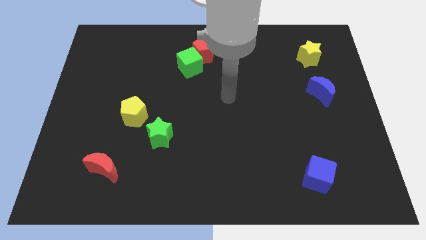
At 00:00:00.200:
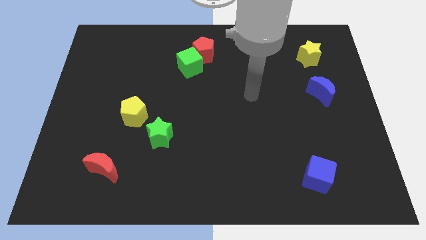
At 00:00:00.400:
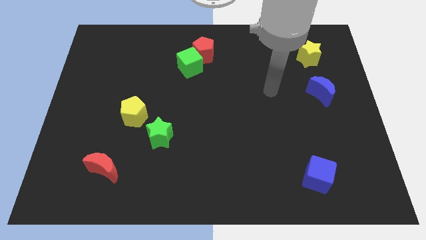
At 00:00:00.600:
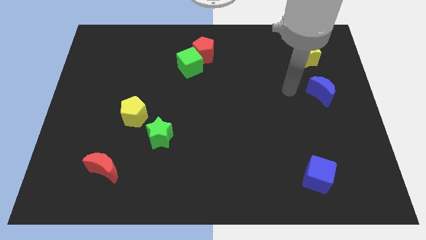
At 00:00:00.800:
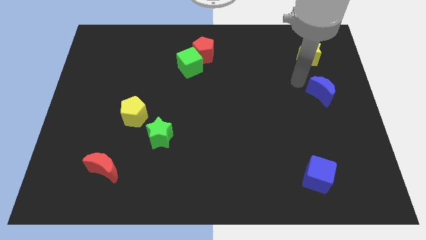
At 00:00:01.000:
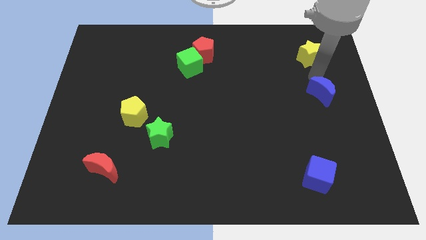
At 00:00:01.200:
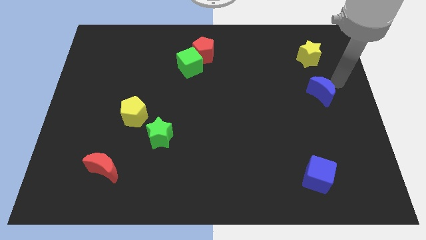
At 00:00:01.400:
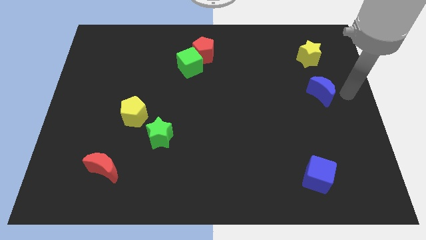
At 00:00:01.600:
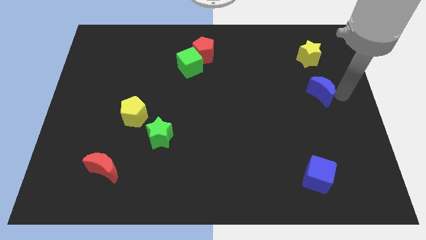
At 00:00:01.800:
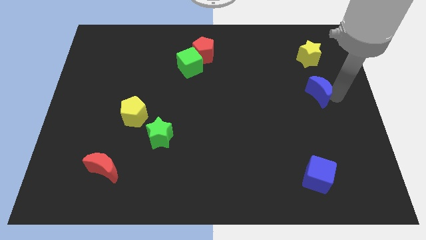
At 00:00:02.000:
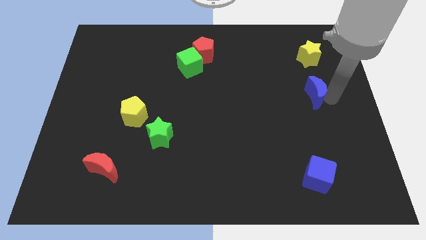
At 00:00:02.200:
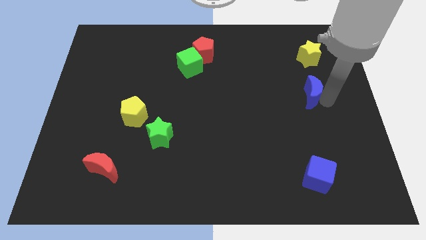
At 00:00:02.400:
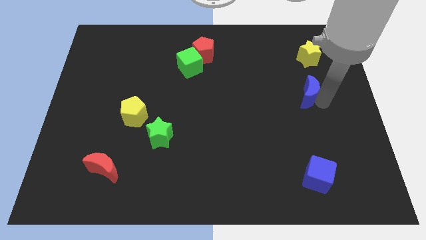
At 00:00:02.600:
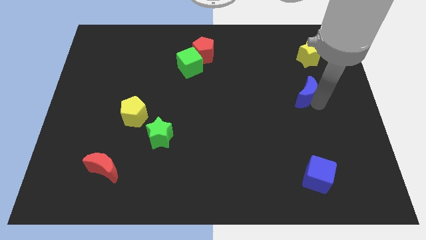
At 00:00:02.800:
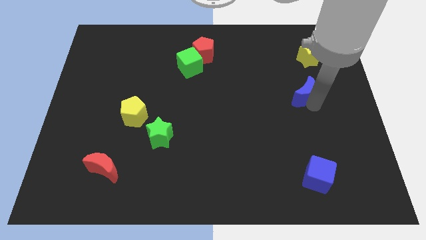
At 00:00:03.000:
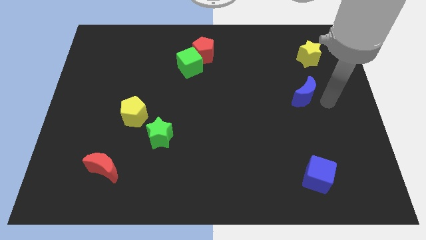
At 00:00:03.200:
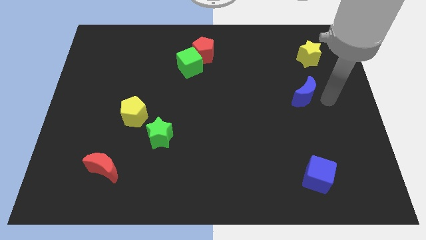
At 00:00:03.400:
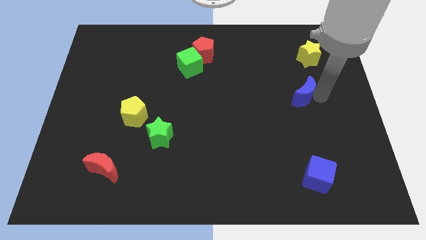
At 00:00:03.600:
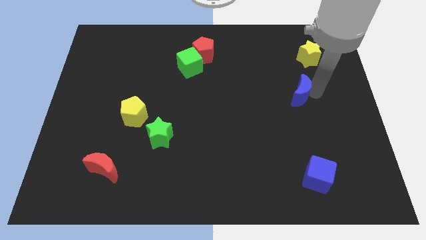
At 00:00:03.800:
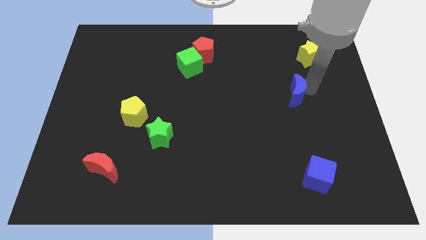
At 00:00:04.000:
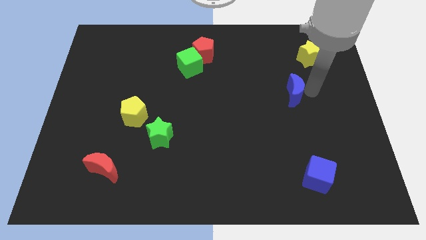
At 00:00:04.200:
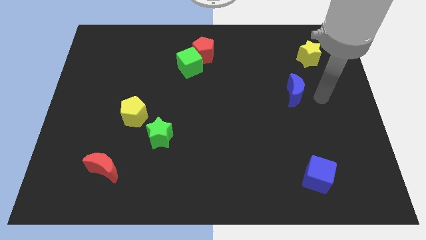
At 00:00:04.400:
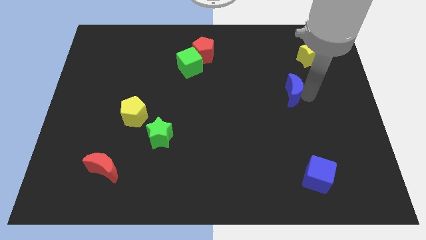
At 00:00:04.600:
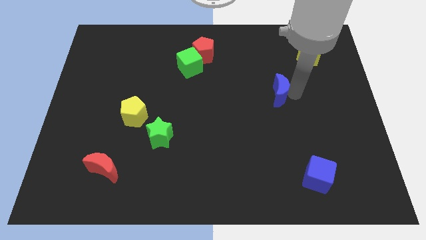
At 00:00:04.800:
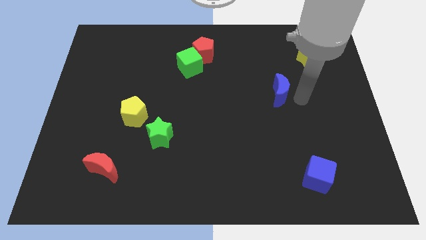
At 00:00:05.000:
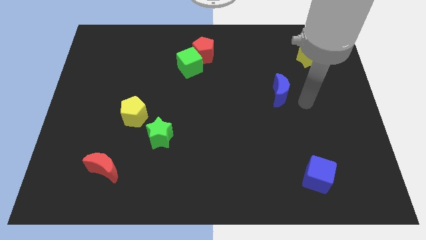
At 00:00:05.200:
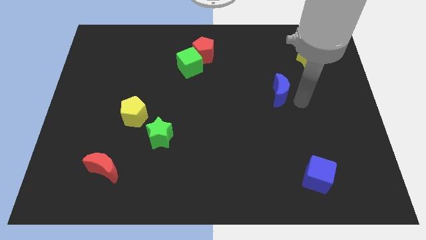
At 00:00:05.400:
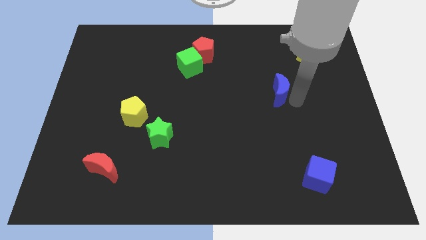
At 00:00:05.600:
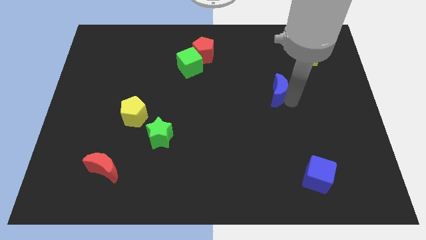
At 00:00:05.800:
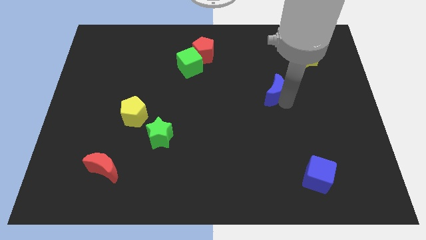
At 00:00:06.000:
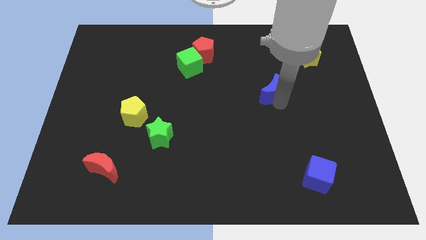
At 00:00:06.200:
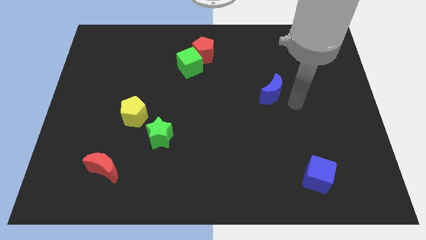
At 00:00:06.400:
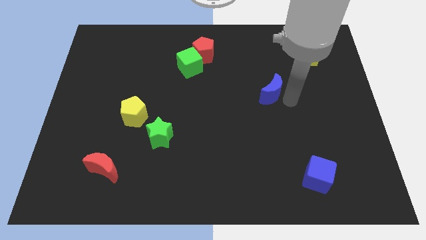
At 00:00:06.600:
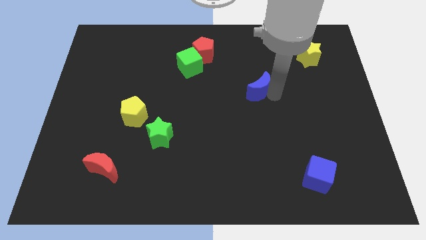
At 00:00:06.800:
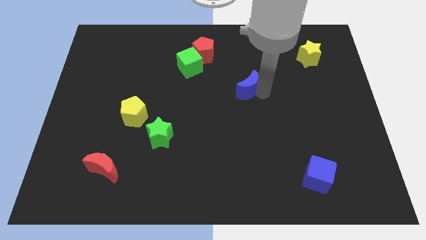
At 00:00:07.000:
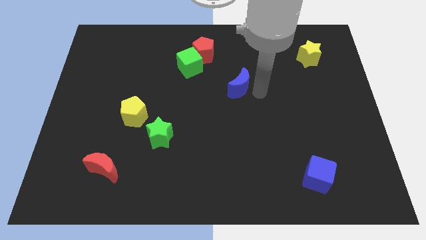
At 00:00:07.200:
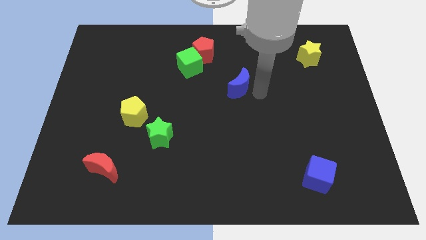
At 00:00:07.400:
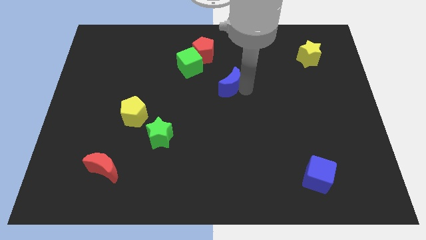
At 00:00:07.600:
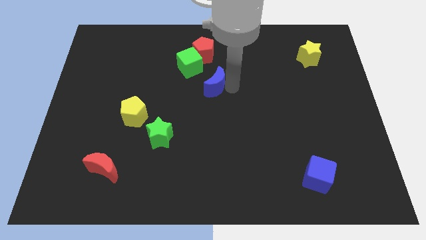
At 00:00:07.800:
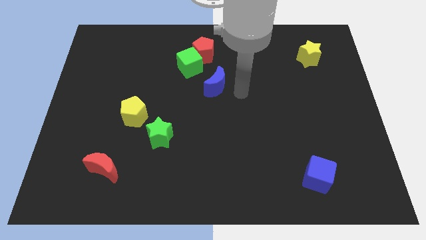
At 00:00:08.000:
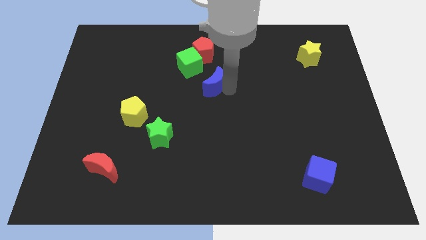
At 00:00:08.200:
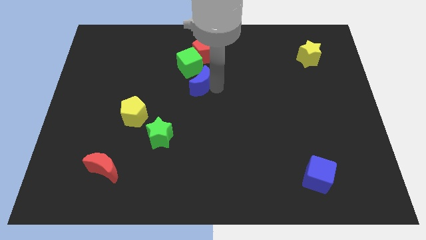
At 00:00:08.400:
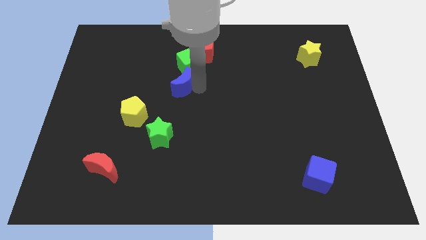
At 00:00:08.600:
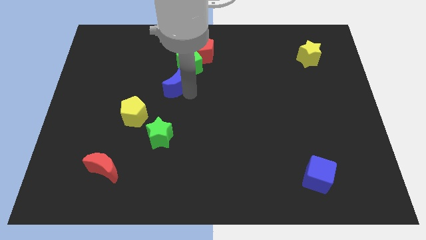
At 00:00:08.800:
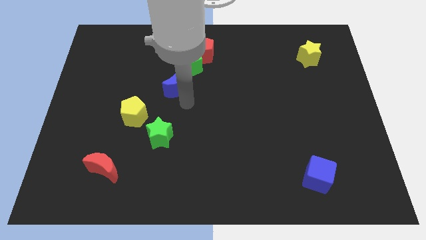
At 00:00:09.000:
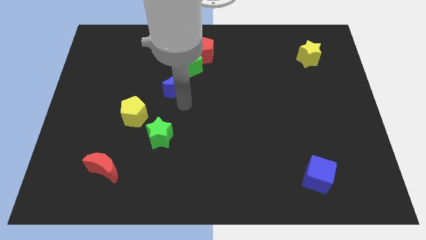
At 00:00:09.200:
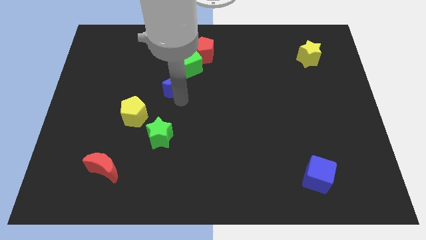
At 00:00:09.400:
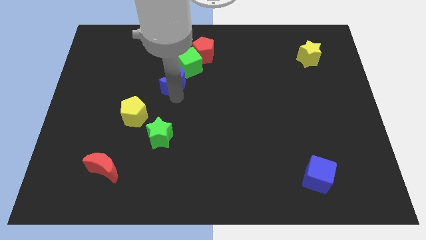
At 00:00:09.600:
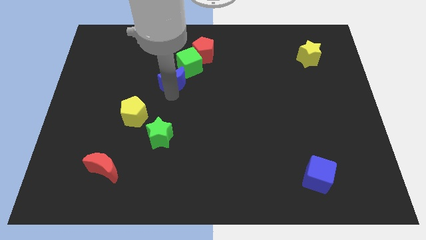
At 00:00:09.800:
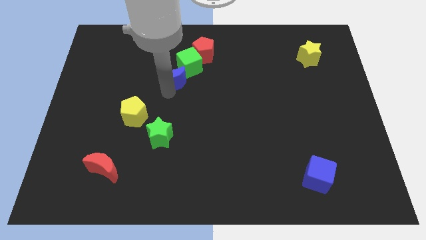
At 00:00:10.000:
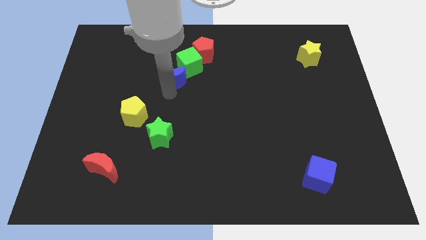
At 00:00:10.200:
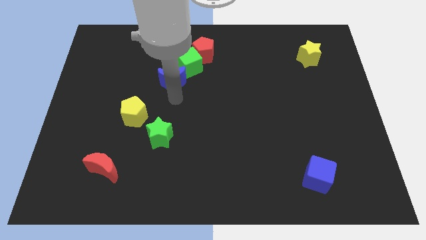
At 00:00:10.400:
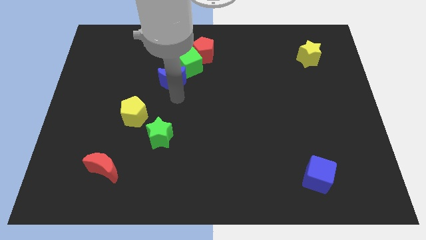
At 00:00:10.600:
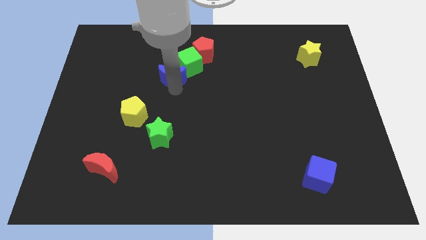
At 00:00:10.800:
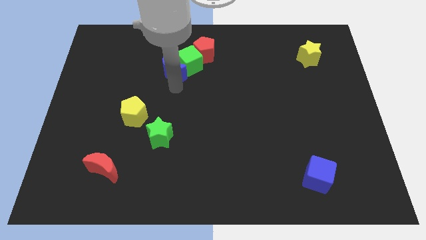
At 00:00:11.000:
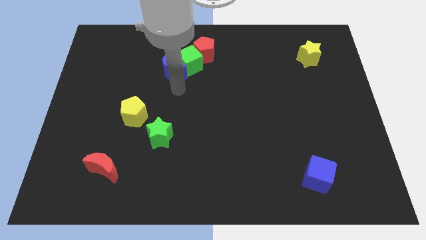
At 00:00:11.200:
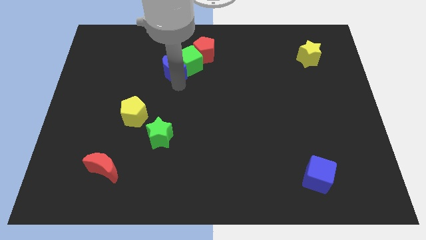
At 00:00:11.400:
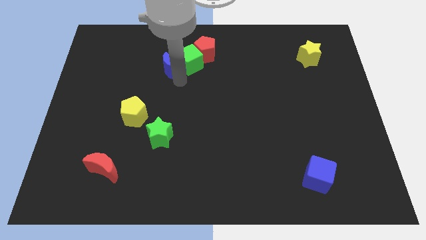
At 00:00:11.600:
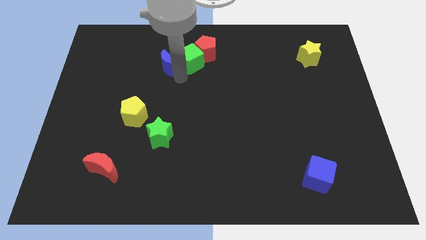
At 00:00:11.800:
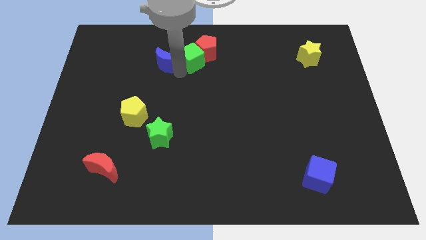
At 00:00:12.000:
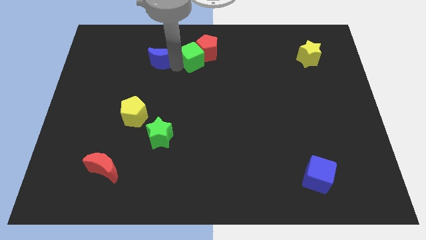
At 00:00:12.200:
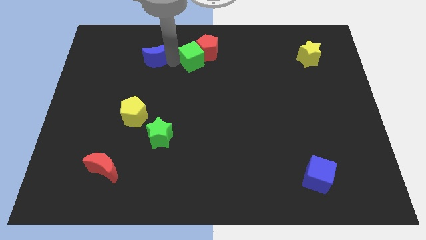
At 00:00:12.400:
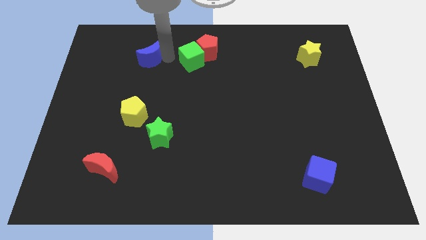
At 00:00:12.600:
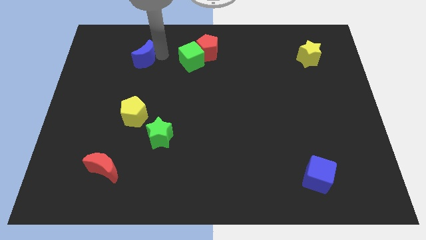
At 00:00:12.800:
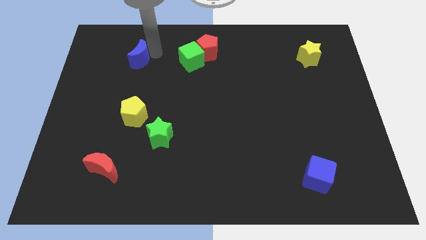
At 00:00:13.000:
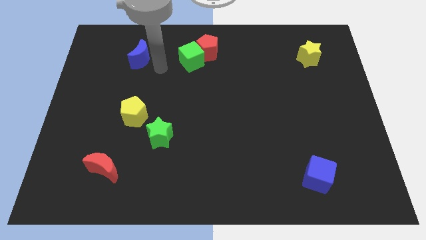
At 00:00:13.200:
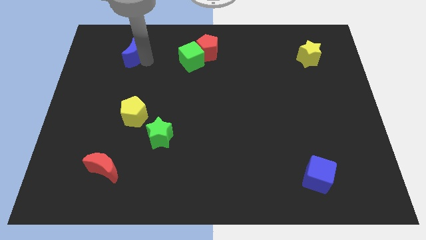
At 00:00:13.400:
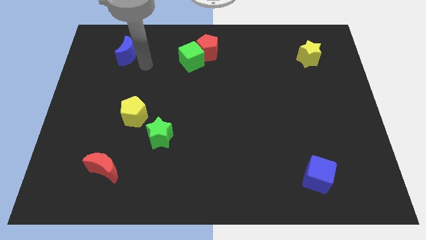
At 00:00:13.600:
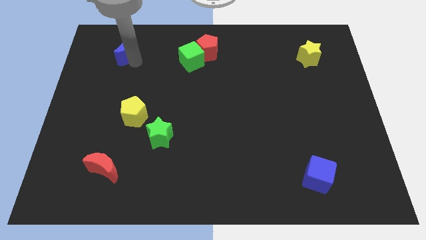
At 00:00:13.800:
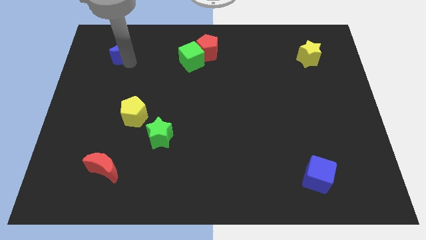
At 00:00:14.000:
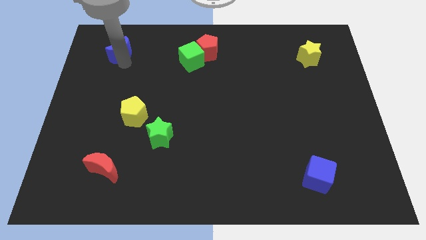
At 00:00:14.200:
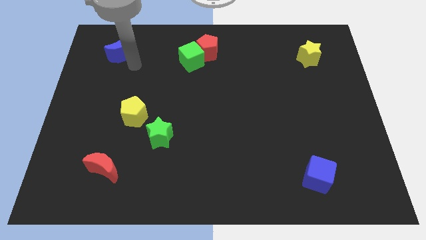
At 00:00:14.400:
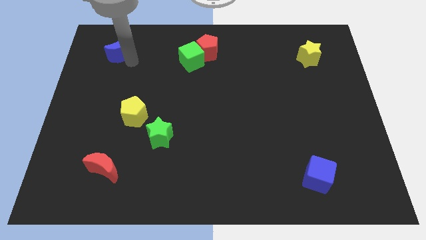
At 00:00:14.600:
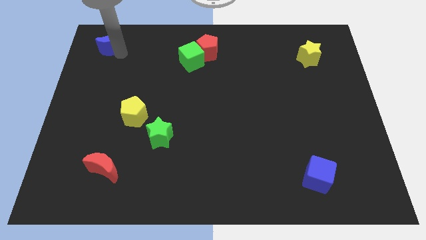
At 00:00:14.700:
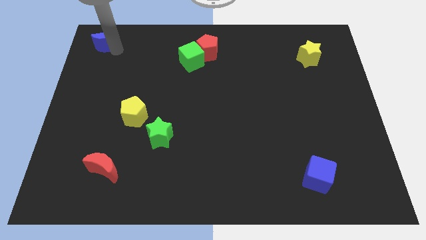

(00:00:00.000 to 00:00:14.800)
slide the blue moon to the top left
